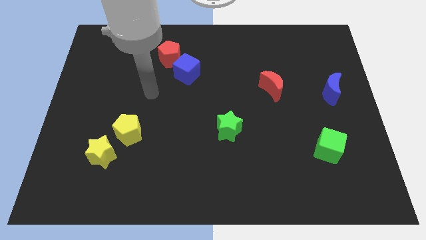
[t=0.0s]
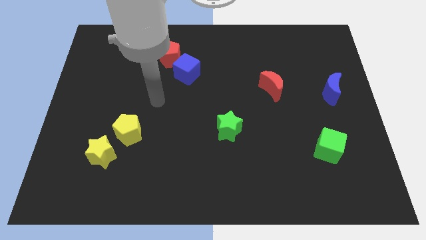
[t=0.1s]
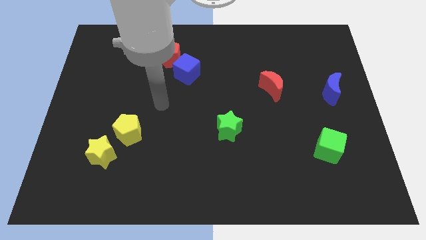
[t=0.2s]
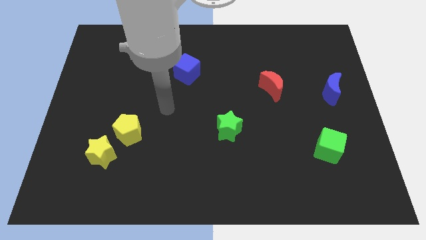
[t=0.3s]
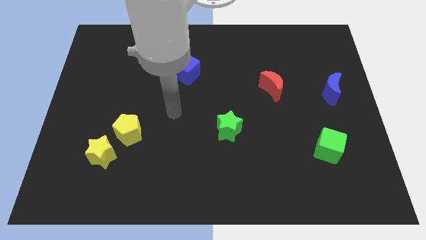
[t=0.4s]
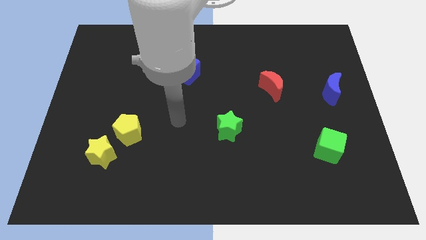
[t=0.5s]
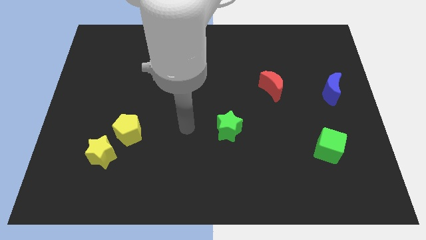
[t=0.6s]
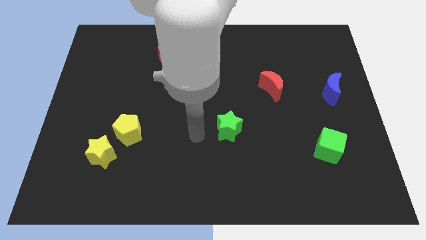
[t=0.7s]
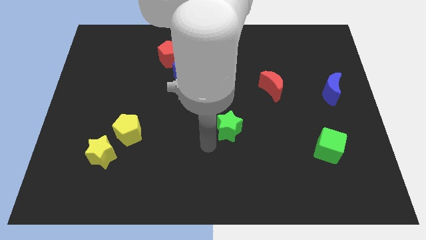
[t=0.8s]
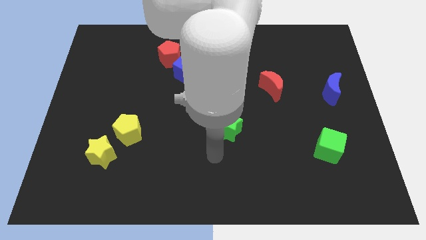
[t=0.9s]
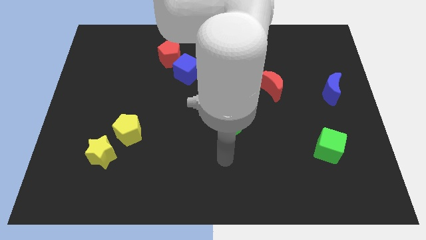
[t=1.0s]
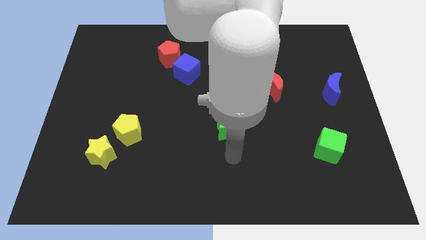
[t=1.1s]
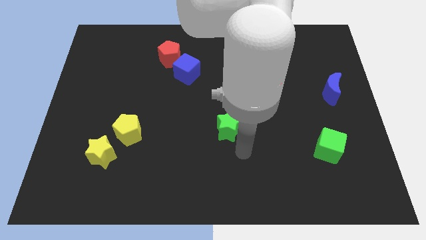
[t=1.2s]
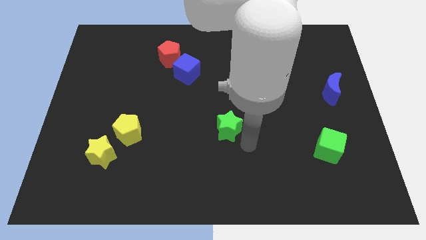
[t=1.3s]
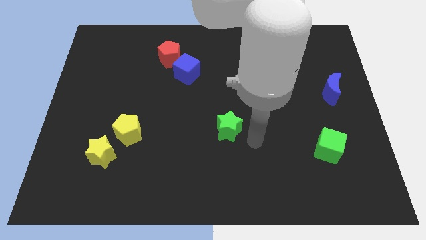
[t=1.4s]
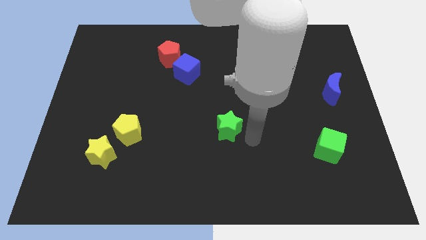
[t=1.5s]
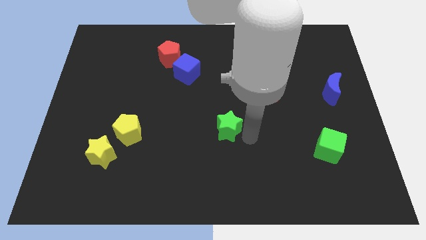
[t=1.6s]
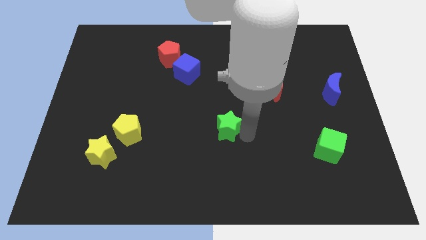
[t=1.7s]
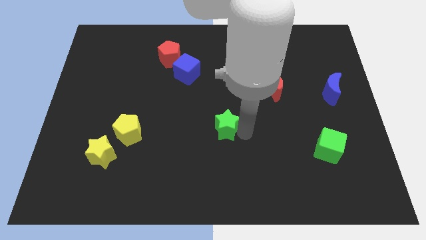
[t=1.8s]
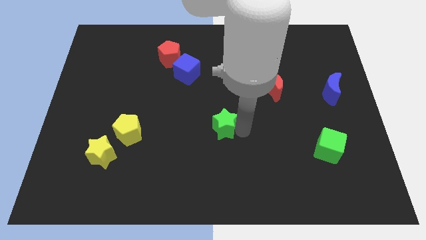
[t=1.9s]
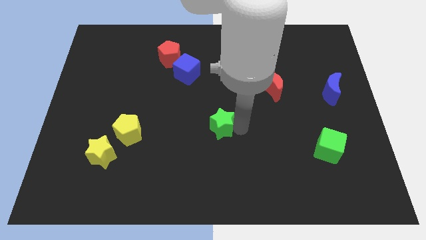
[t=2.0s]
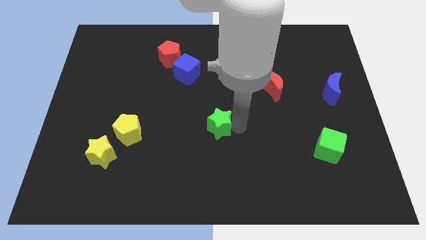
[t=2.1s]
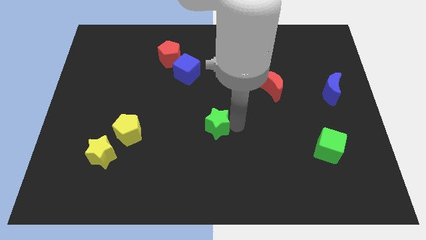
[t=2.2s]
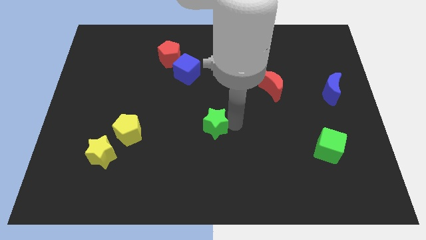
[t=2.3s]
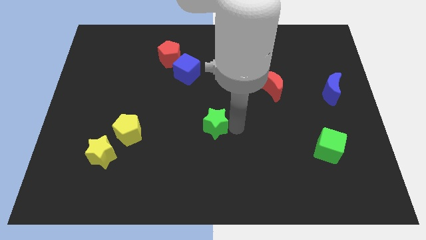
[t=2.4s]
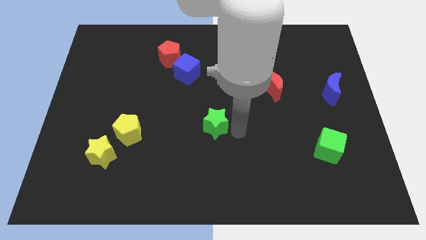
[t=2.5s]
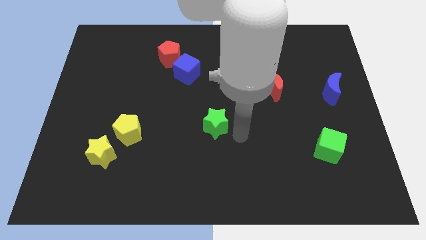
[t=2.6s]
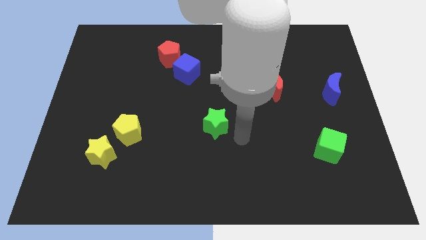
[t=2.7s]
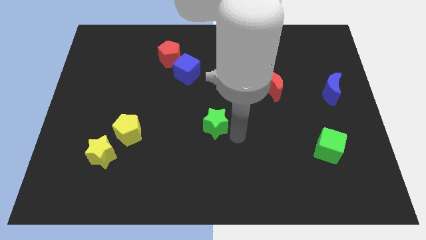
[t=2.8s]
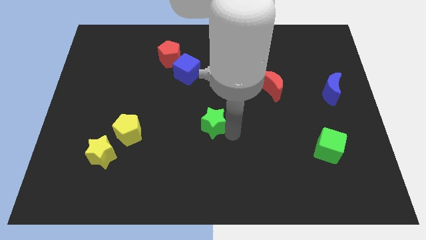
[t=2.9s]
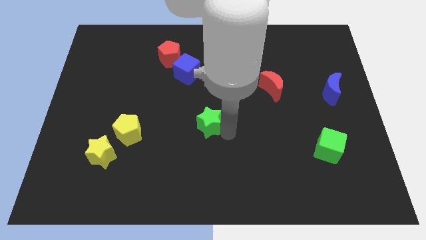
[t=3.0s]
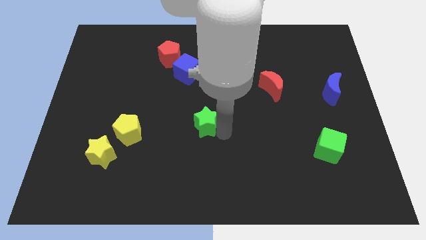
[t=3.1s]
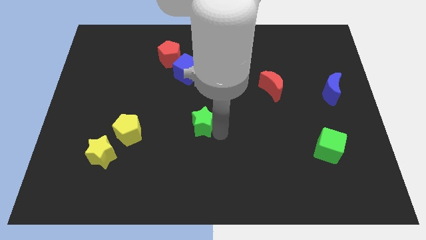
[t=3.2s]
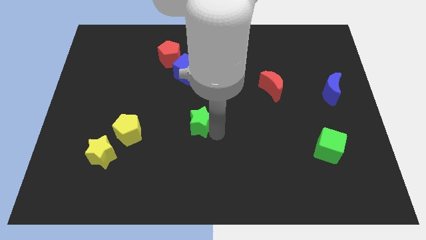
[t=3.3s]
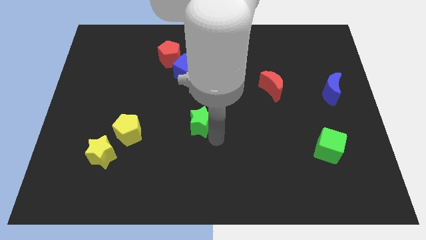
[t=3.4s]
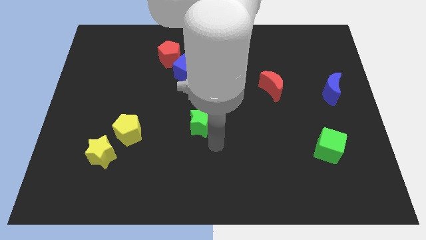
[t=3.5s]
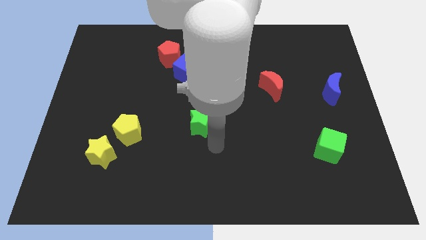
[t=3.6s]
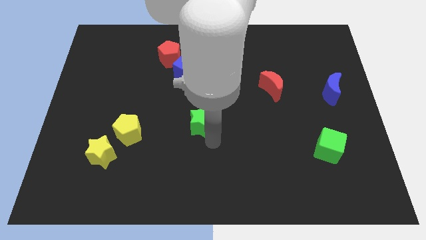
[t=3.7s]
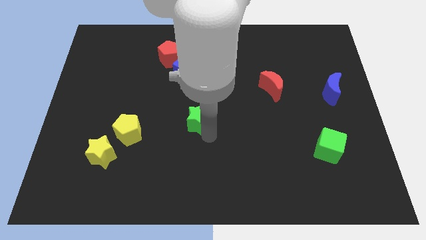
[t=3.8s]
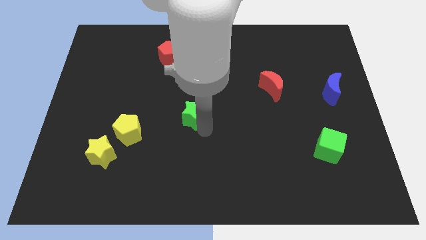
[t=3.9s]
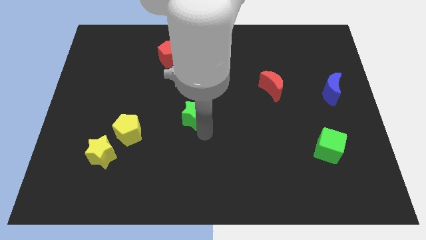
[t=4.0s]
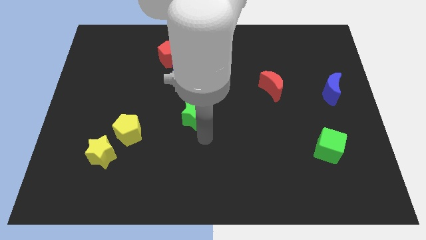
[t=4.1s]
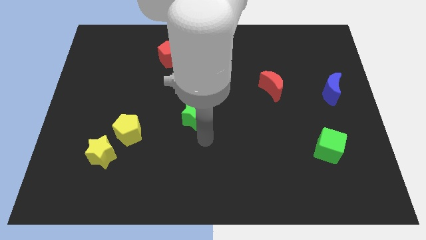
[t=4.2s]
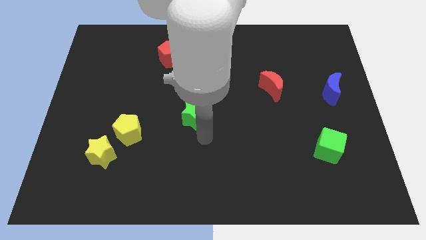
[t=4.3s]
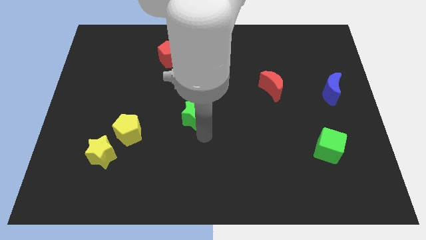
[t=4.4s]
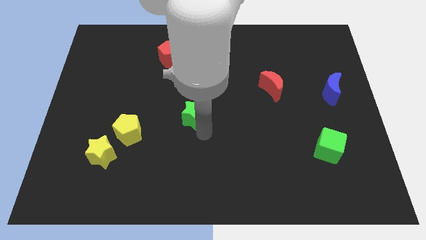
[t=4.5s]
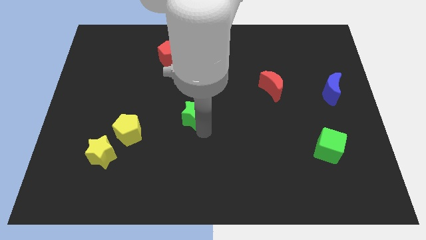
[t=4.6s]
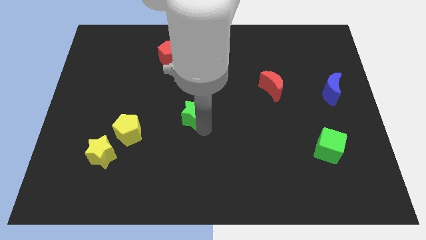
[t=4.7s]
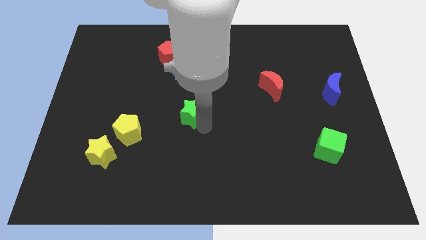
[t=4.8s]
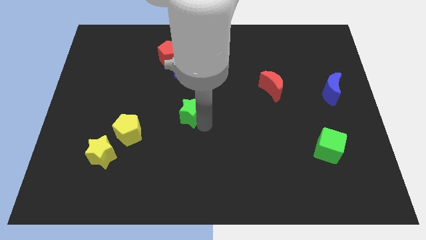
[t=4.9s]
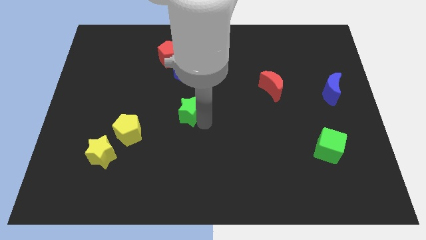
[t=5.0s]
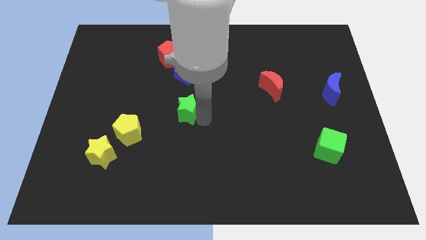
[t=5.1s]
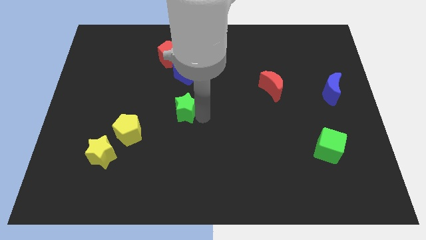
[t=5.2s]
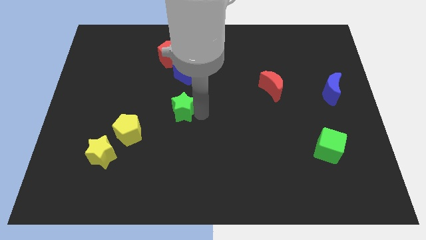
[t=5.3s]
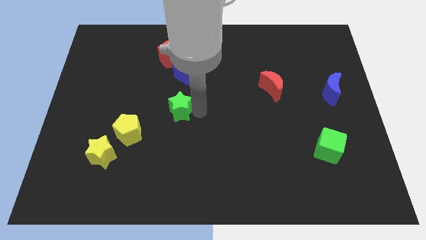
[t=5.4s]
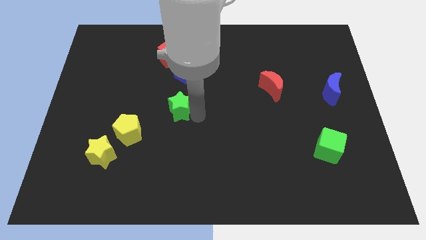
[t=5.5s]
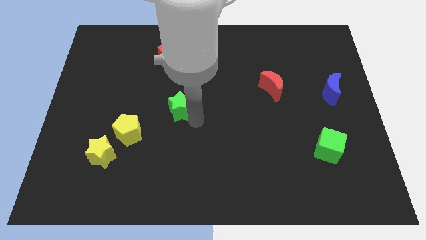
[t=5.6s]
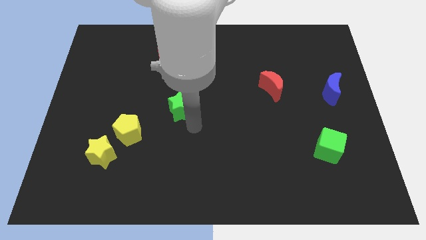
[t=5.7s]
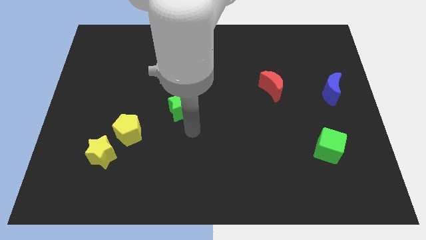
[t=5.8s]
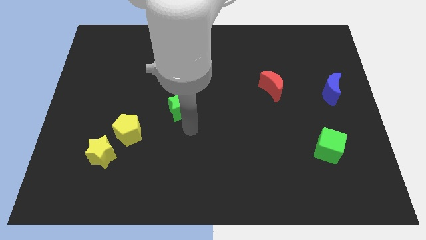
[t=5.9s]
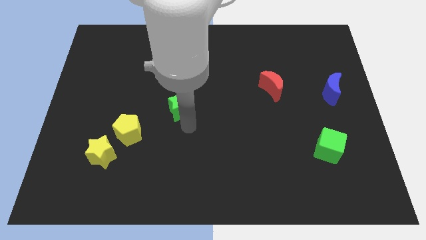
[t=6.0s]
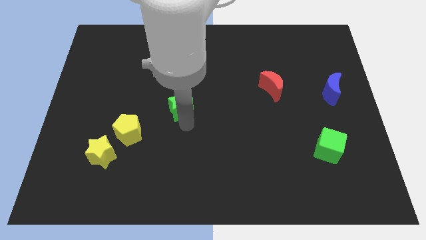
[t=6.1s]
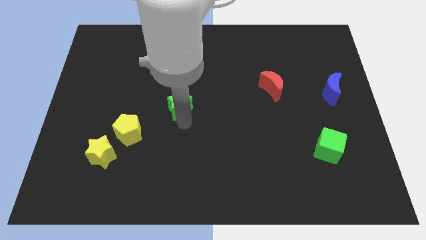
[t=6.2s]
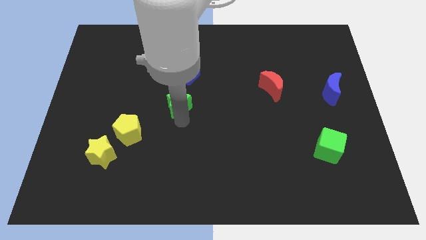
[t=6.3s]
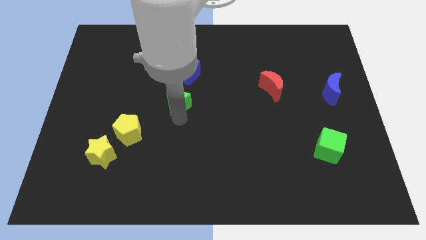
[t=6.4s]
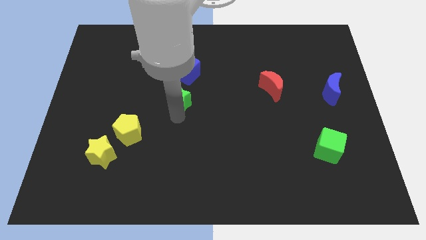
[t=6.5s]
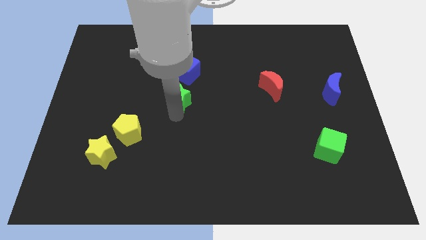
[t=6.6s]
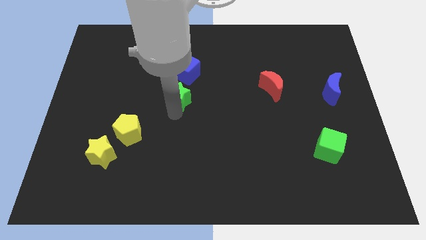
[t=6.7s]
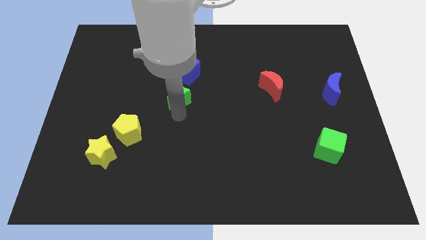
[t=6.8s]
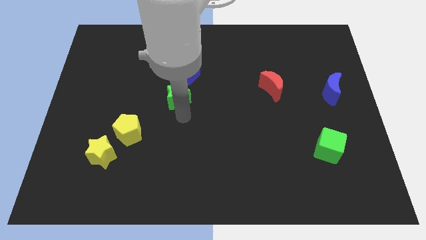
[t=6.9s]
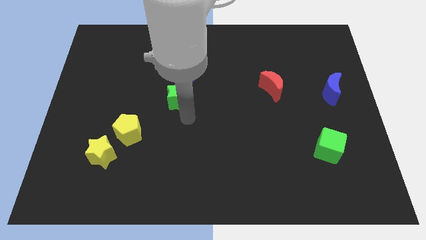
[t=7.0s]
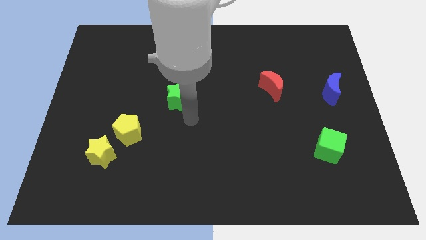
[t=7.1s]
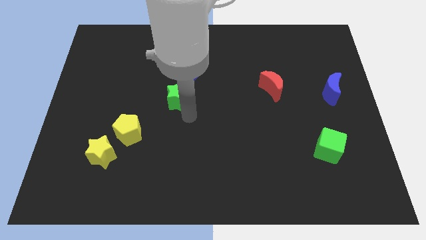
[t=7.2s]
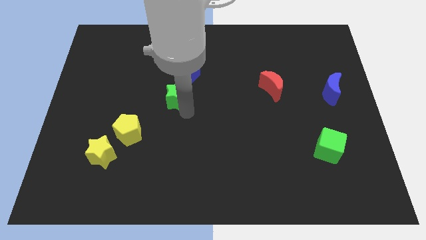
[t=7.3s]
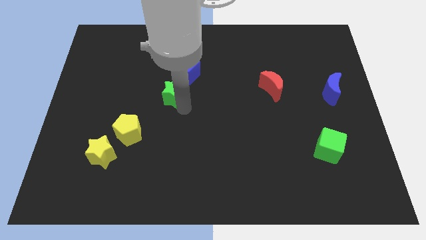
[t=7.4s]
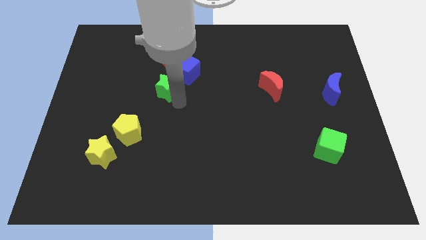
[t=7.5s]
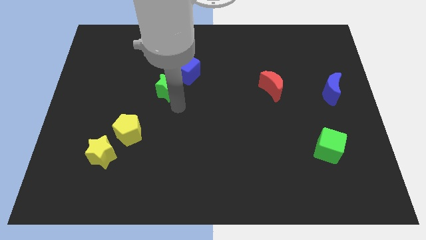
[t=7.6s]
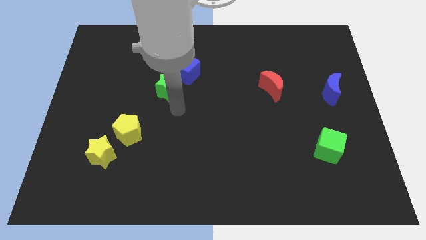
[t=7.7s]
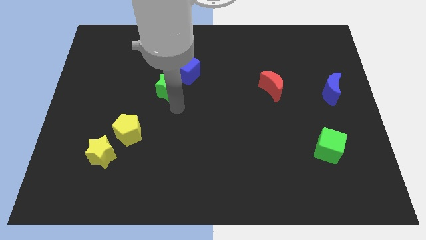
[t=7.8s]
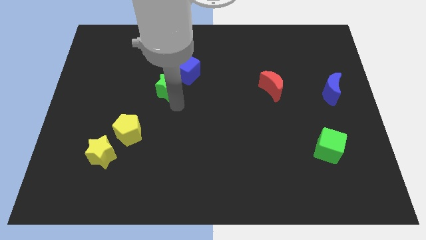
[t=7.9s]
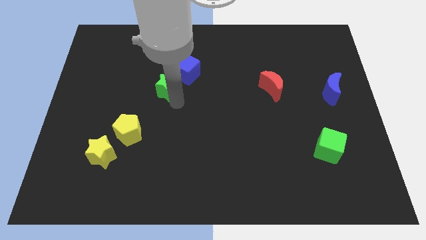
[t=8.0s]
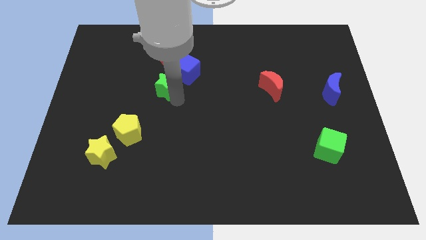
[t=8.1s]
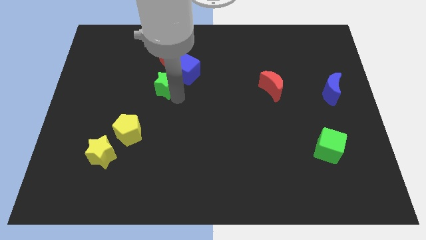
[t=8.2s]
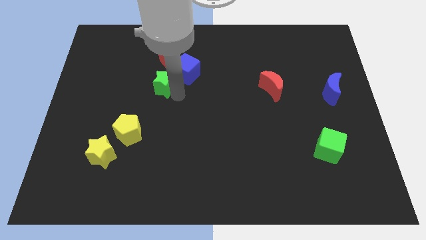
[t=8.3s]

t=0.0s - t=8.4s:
move the green star up and left diagonally
